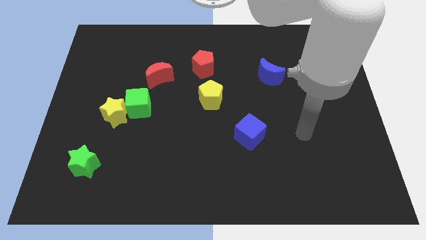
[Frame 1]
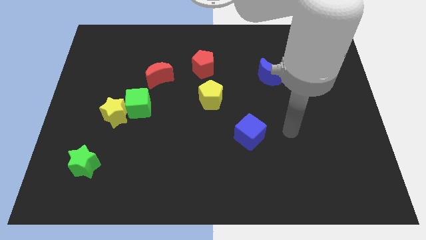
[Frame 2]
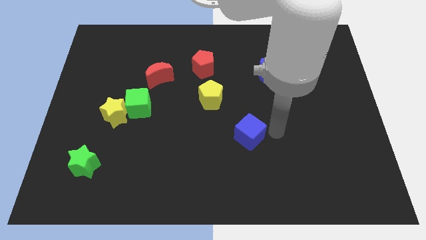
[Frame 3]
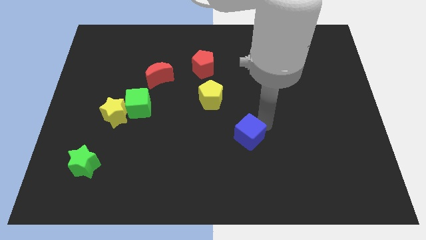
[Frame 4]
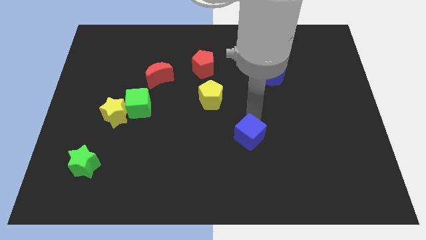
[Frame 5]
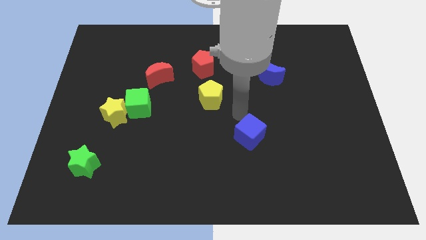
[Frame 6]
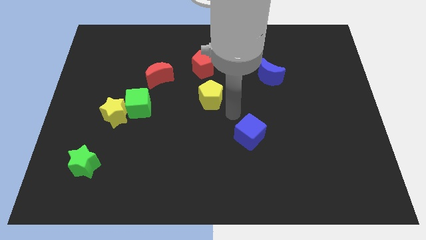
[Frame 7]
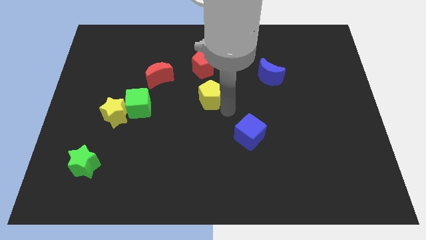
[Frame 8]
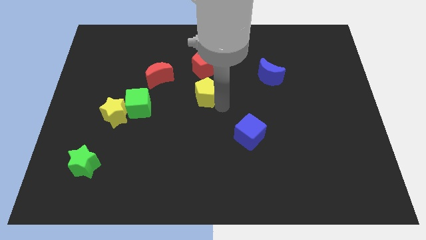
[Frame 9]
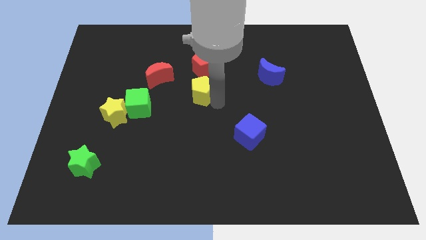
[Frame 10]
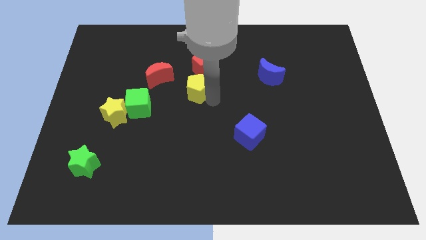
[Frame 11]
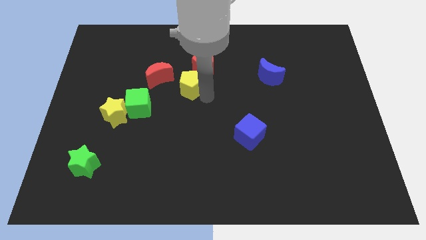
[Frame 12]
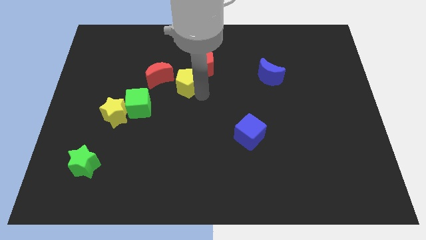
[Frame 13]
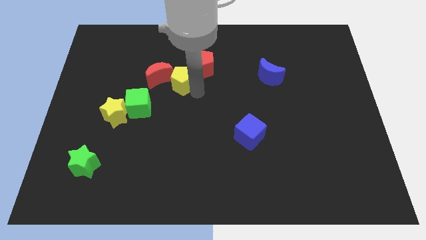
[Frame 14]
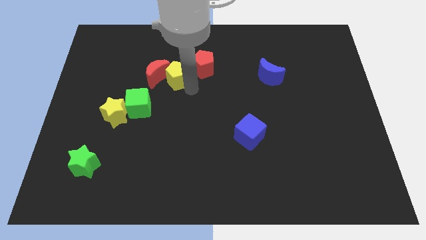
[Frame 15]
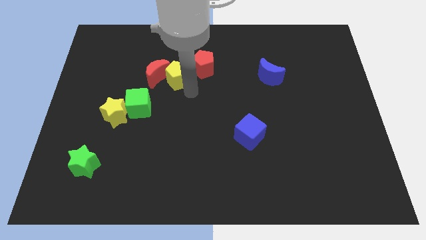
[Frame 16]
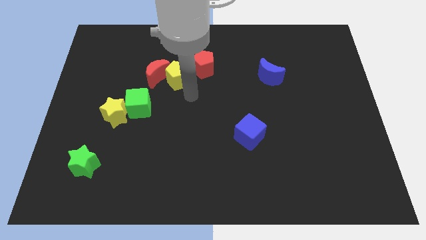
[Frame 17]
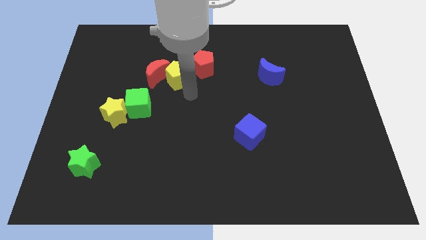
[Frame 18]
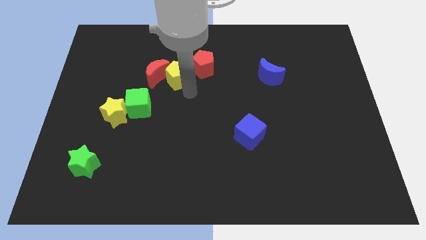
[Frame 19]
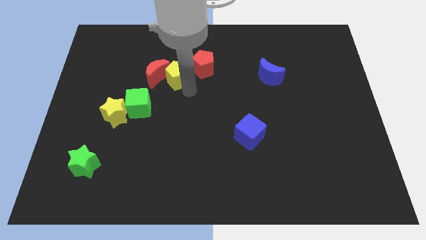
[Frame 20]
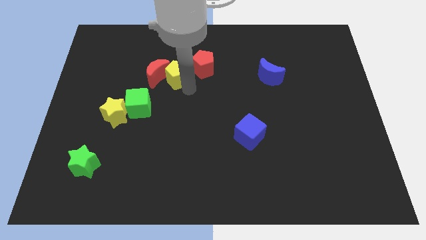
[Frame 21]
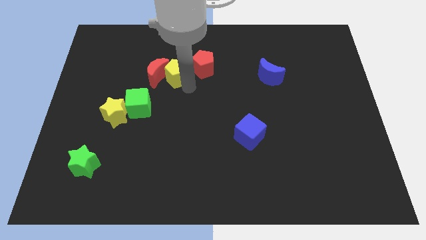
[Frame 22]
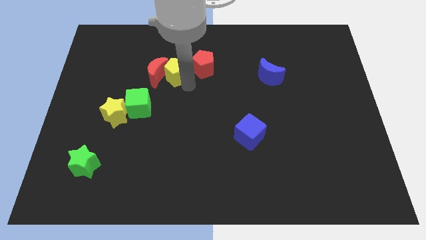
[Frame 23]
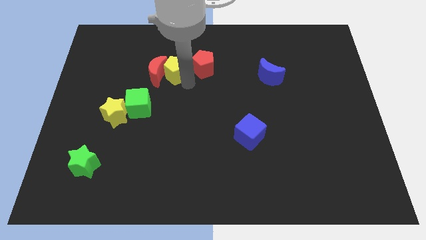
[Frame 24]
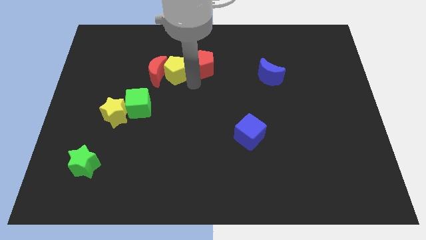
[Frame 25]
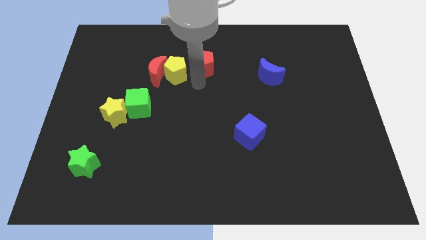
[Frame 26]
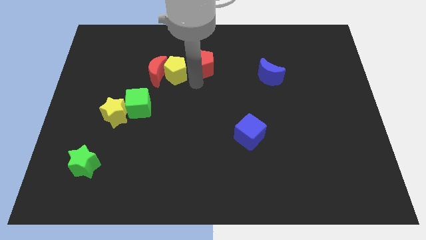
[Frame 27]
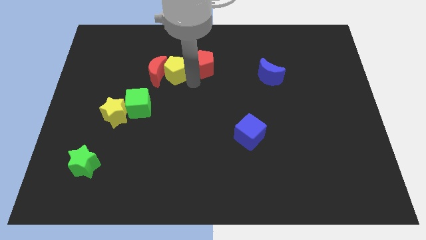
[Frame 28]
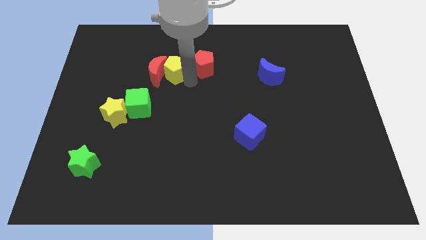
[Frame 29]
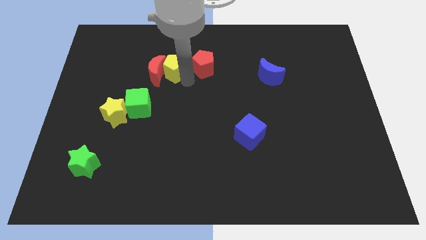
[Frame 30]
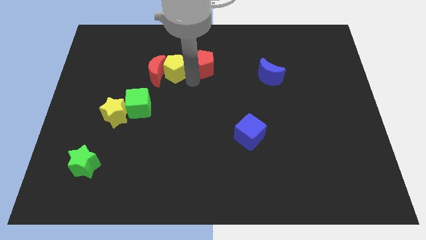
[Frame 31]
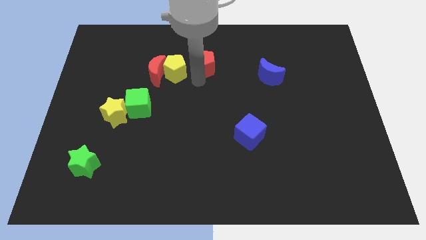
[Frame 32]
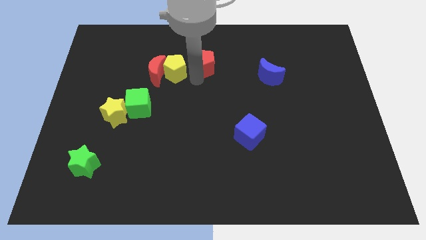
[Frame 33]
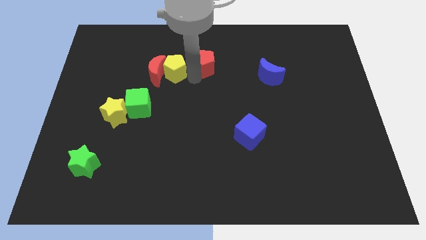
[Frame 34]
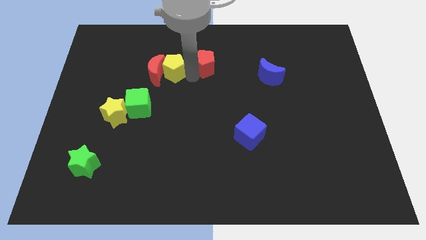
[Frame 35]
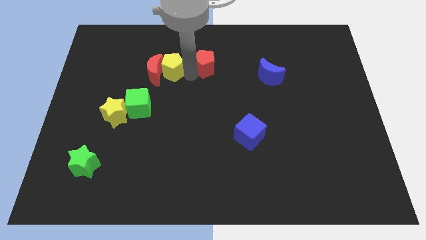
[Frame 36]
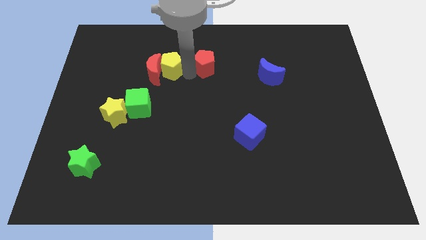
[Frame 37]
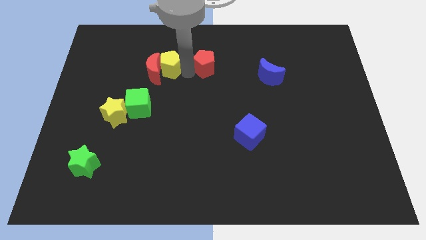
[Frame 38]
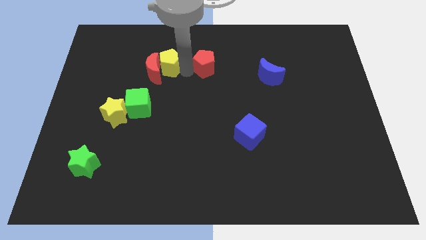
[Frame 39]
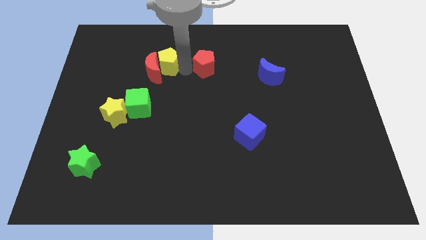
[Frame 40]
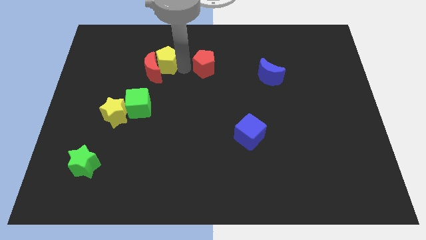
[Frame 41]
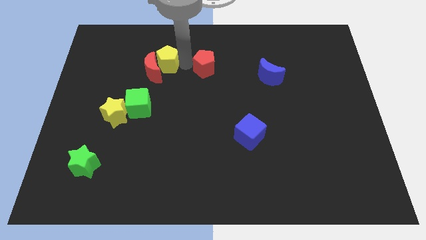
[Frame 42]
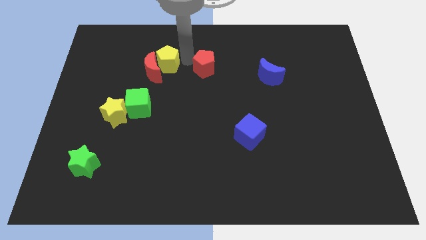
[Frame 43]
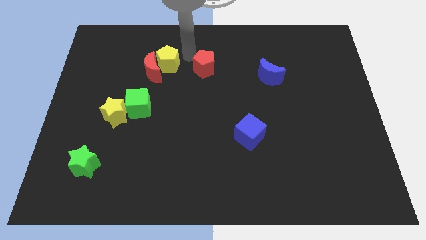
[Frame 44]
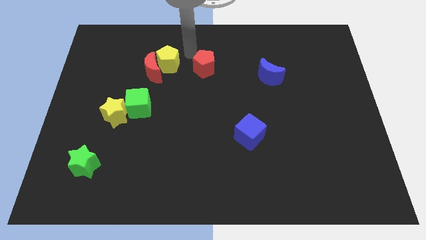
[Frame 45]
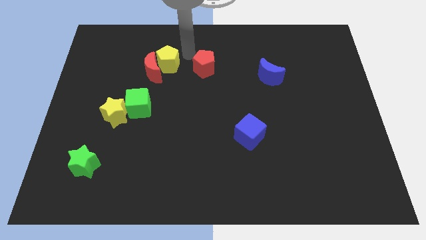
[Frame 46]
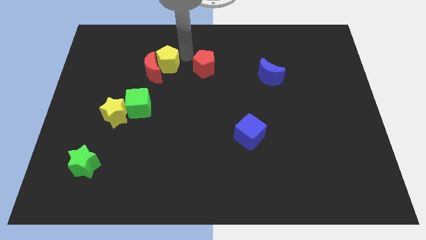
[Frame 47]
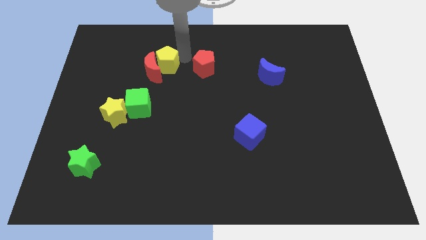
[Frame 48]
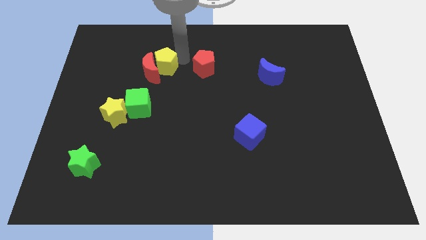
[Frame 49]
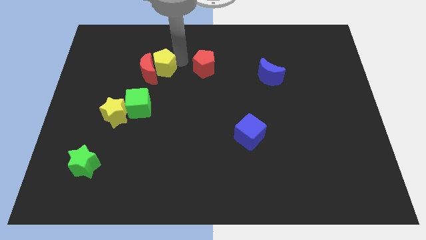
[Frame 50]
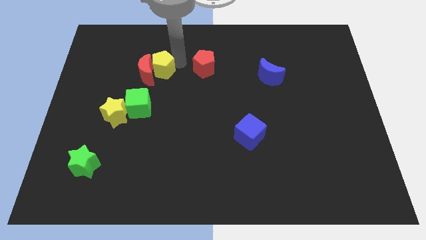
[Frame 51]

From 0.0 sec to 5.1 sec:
put the yellow pentagon to the top of the green cube

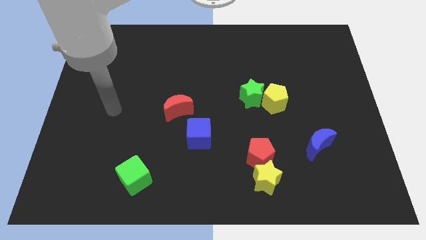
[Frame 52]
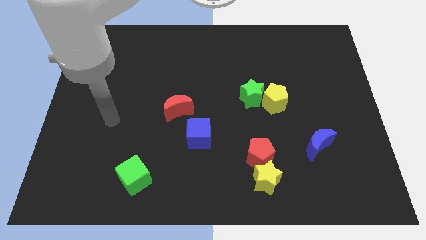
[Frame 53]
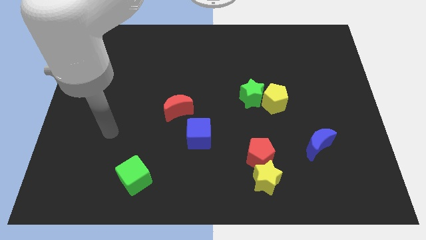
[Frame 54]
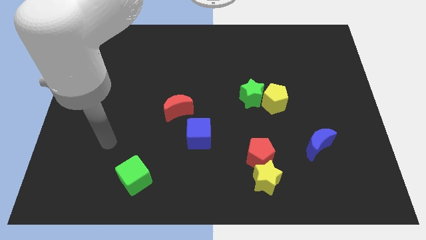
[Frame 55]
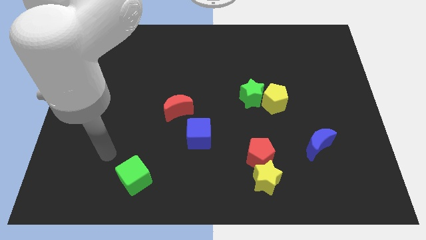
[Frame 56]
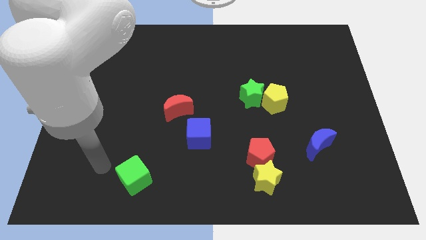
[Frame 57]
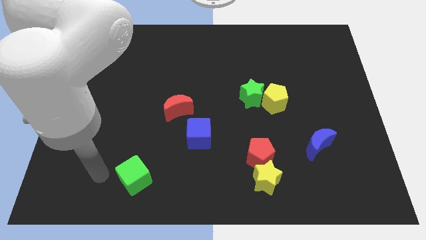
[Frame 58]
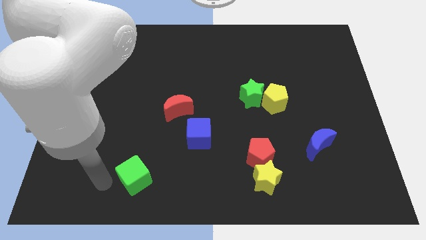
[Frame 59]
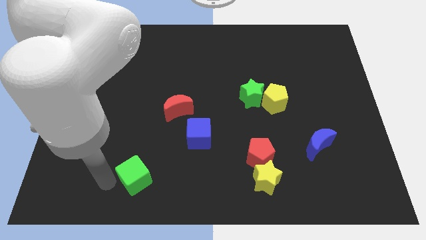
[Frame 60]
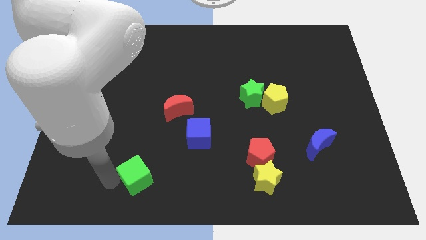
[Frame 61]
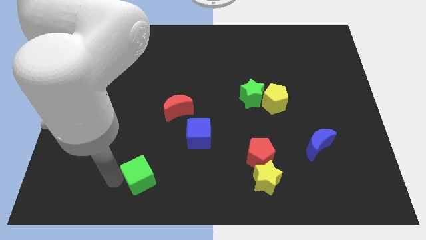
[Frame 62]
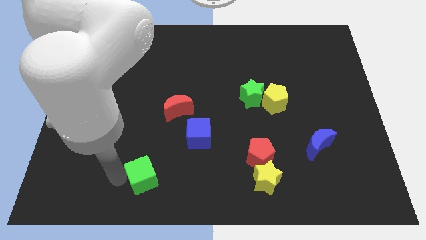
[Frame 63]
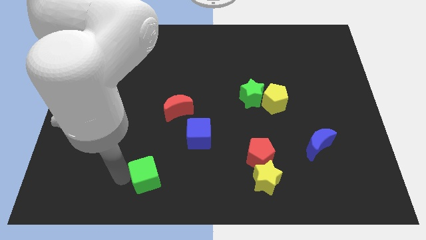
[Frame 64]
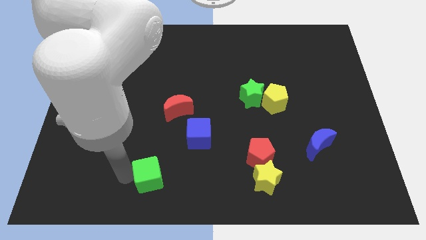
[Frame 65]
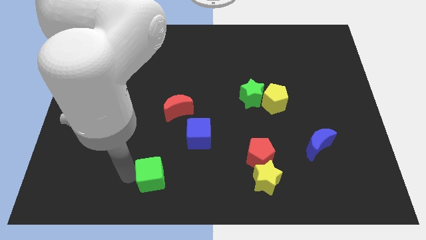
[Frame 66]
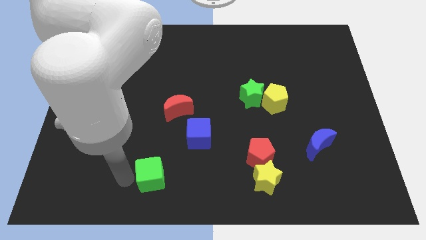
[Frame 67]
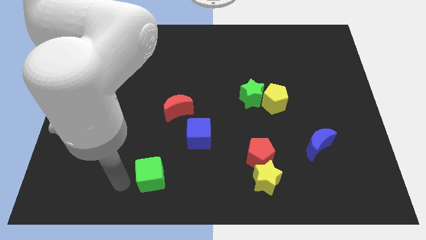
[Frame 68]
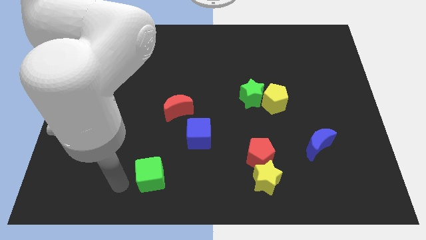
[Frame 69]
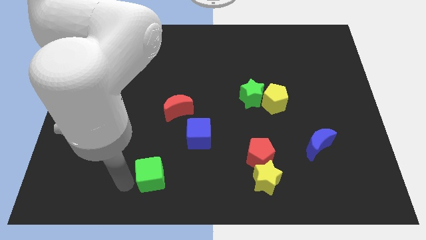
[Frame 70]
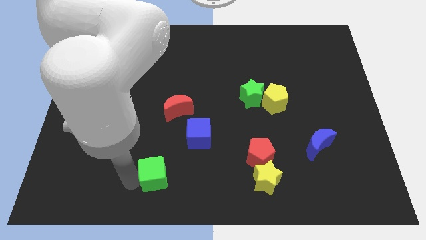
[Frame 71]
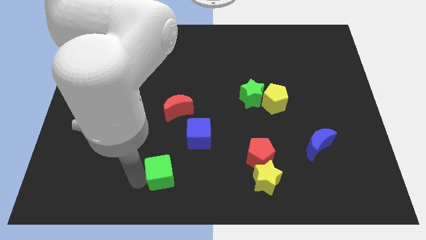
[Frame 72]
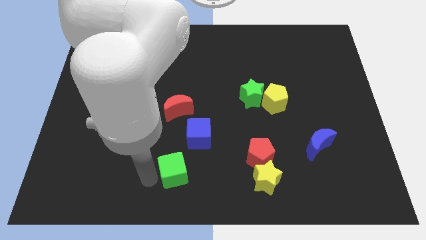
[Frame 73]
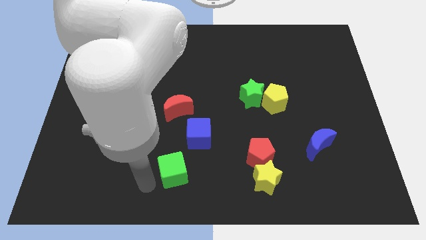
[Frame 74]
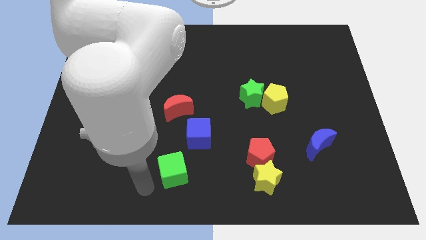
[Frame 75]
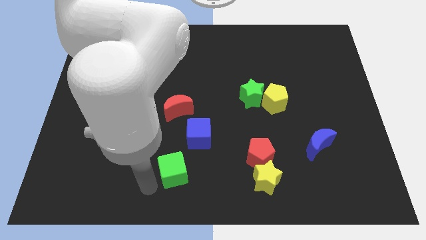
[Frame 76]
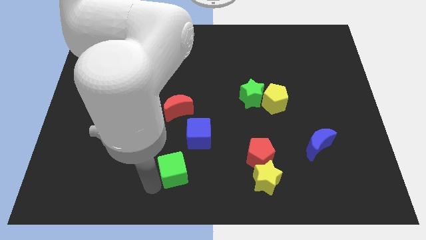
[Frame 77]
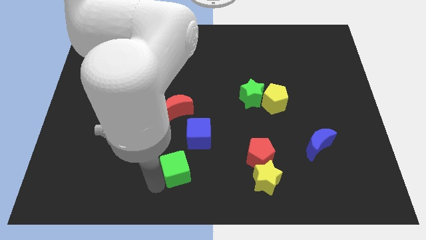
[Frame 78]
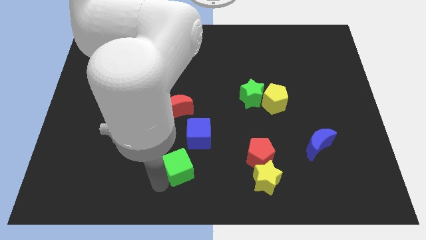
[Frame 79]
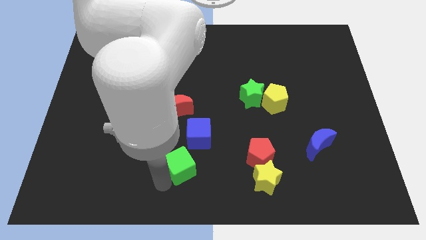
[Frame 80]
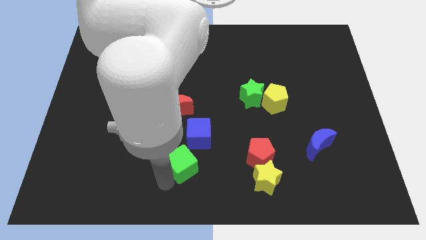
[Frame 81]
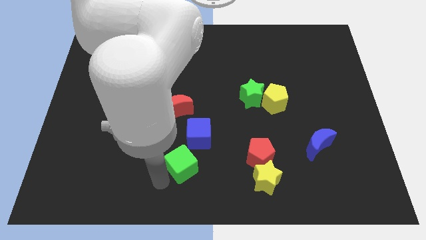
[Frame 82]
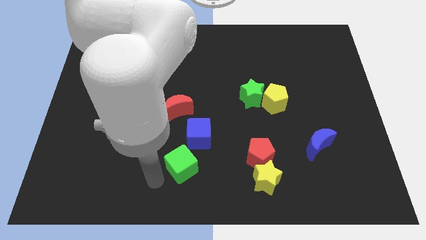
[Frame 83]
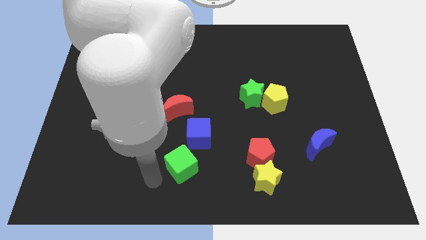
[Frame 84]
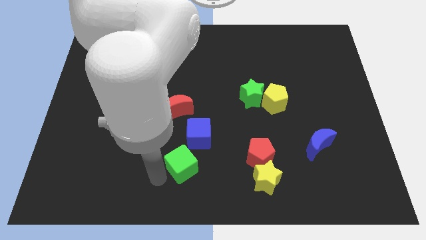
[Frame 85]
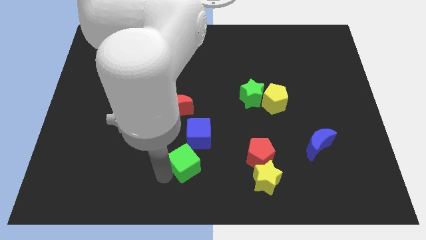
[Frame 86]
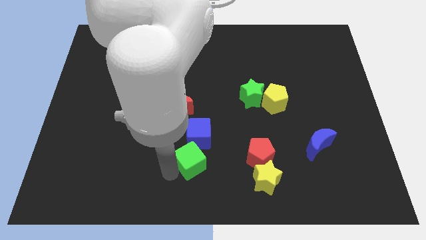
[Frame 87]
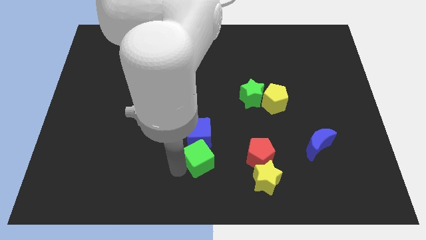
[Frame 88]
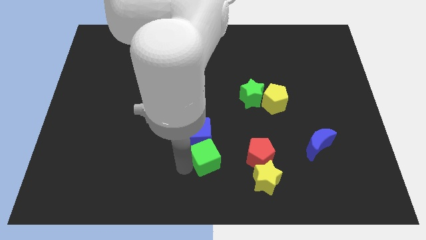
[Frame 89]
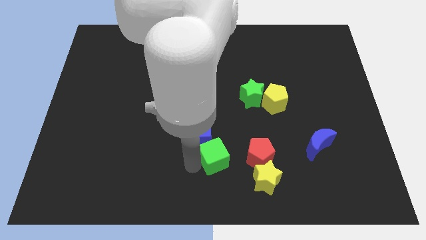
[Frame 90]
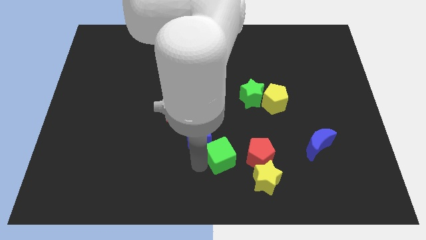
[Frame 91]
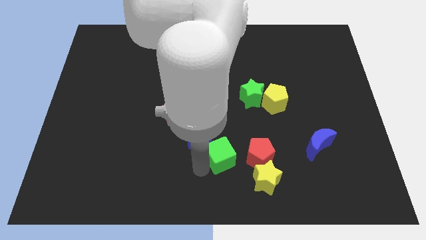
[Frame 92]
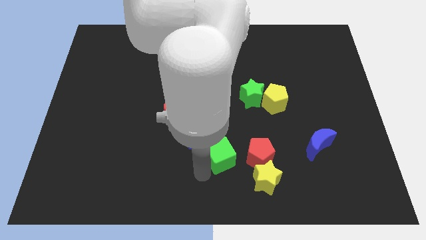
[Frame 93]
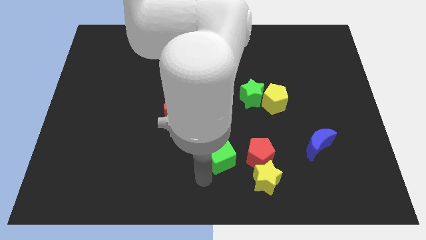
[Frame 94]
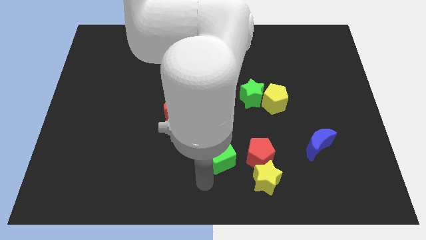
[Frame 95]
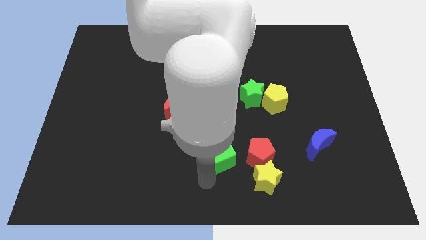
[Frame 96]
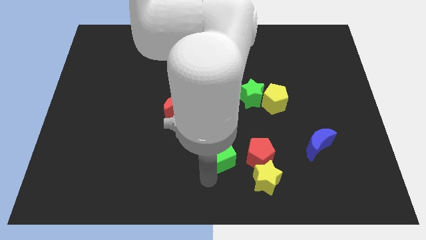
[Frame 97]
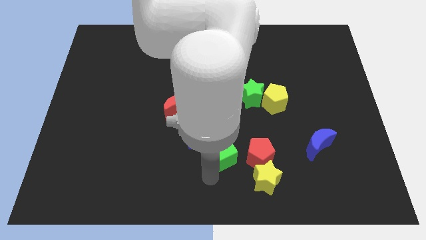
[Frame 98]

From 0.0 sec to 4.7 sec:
put the green cube right of the blue cube
